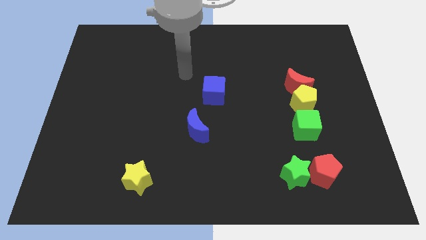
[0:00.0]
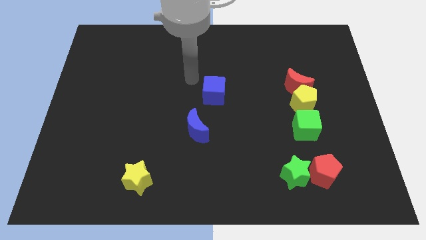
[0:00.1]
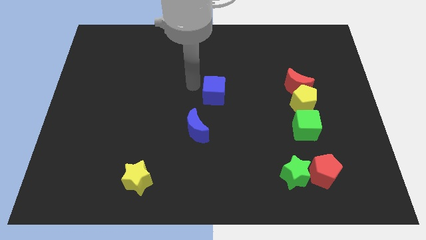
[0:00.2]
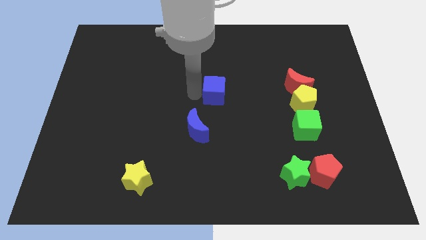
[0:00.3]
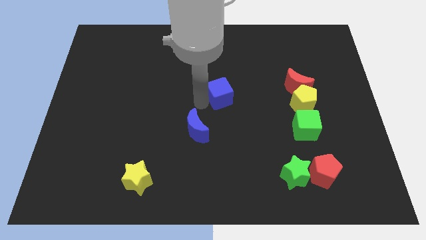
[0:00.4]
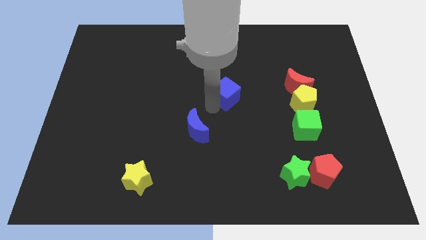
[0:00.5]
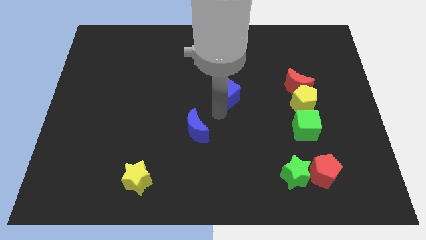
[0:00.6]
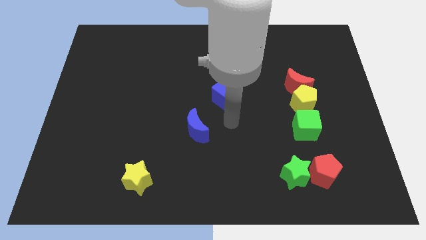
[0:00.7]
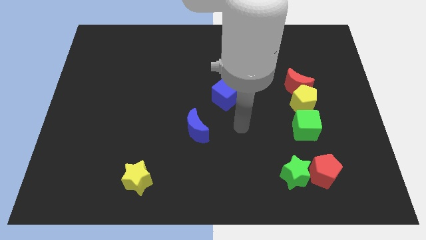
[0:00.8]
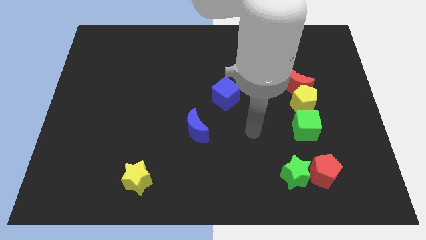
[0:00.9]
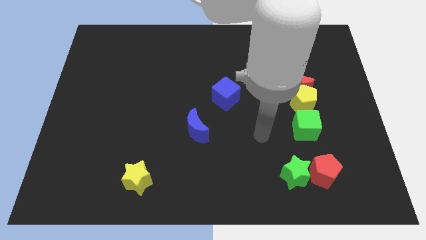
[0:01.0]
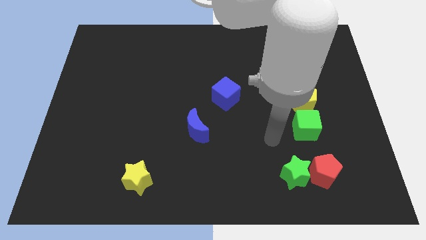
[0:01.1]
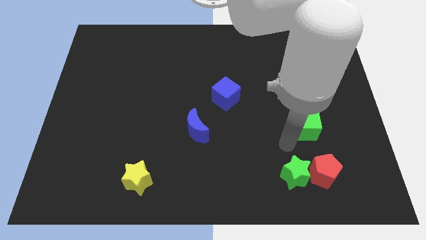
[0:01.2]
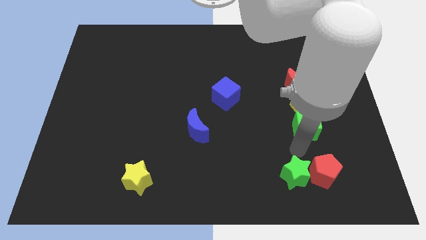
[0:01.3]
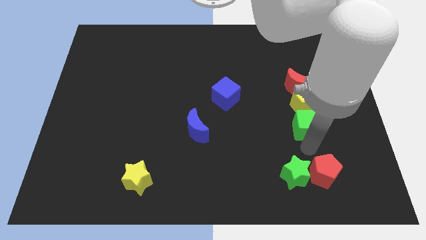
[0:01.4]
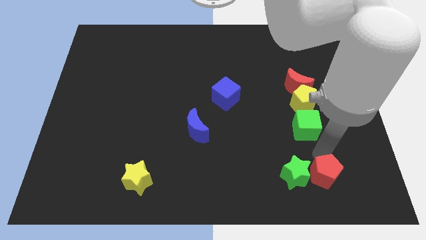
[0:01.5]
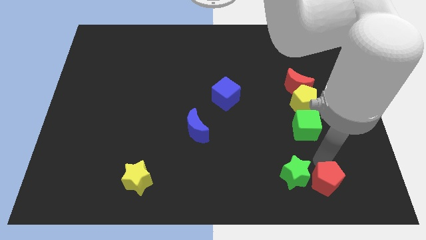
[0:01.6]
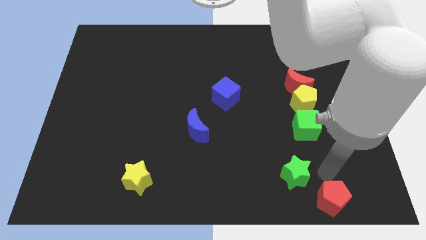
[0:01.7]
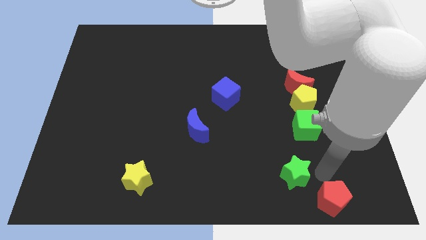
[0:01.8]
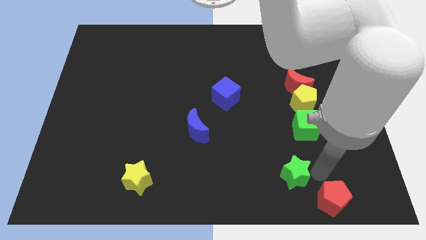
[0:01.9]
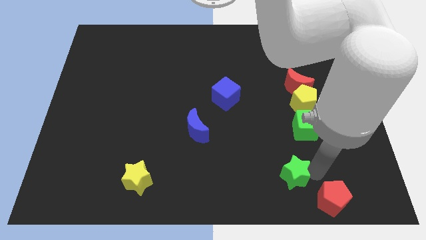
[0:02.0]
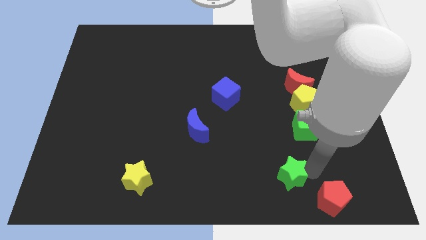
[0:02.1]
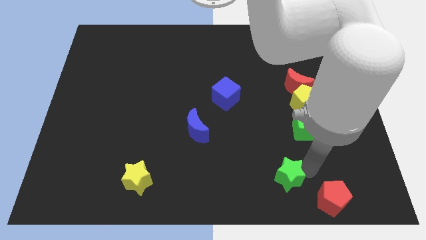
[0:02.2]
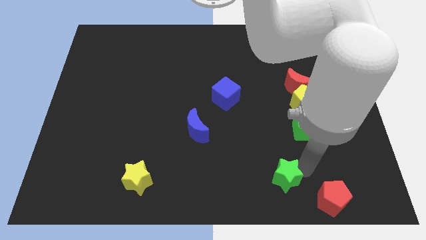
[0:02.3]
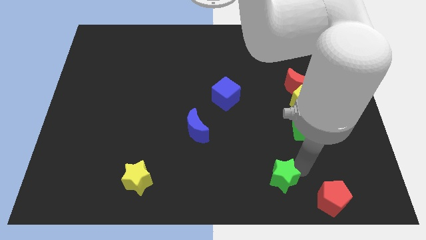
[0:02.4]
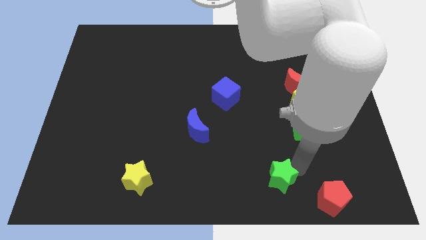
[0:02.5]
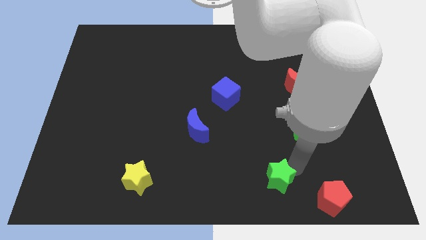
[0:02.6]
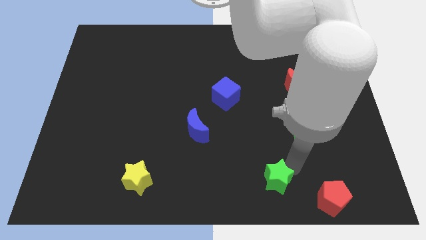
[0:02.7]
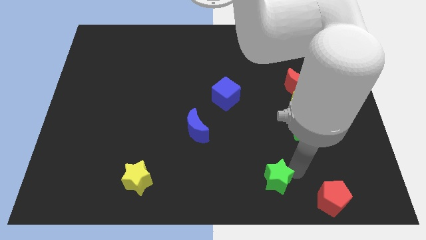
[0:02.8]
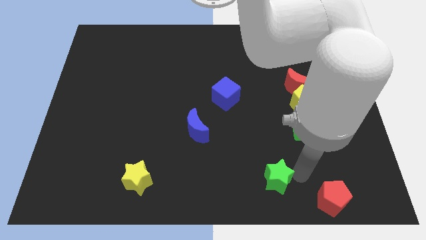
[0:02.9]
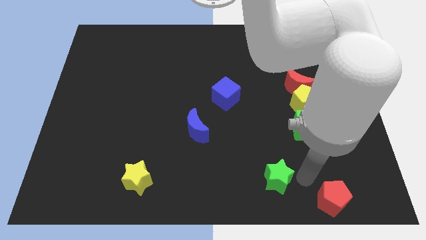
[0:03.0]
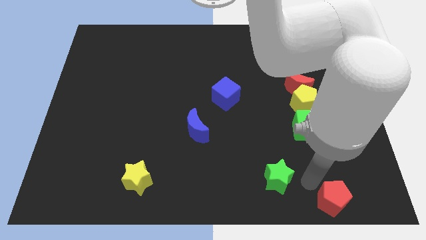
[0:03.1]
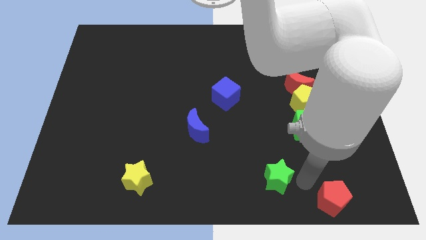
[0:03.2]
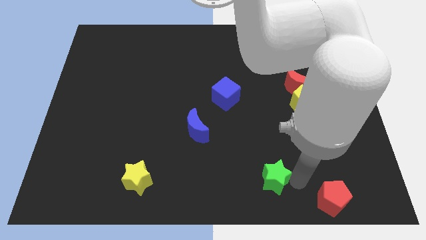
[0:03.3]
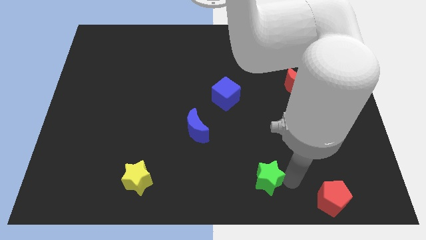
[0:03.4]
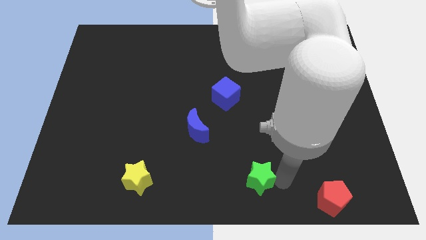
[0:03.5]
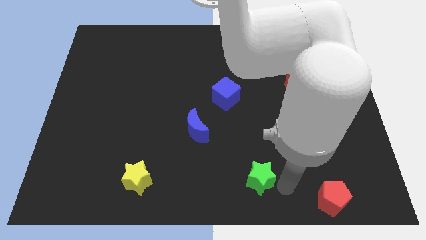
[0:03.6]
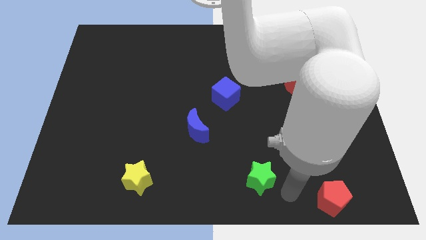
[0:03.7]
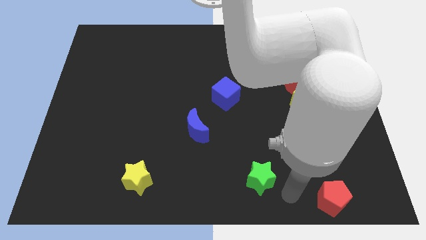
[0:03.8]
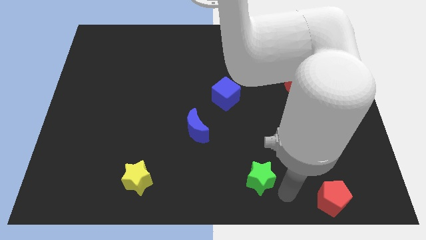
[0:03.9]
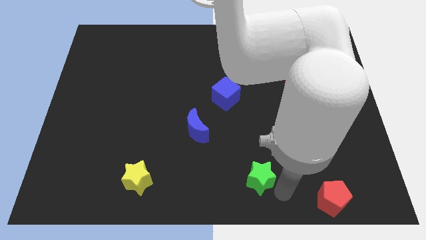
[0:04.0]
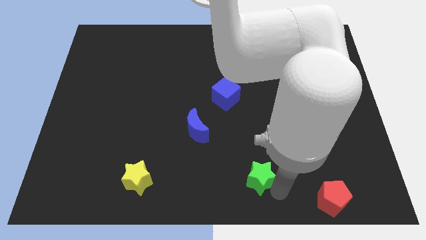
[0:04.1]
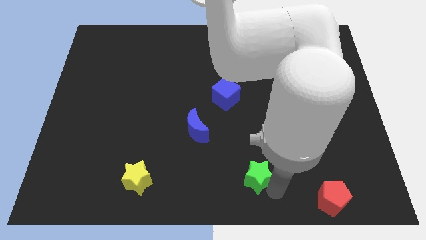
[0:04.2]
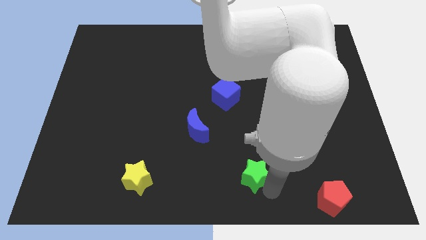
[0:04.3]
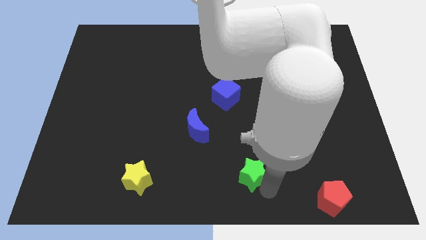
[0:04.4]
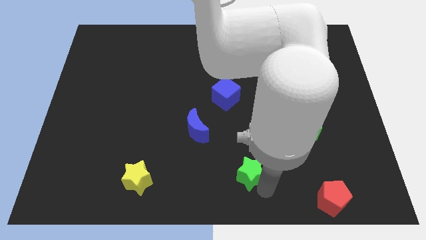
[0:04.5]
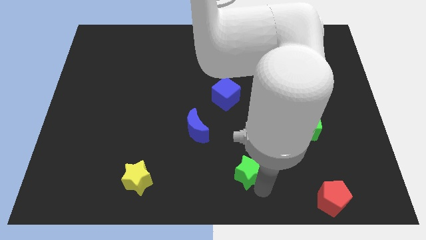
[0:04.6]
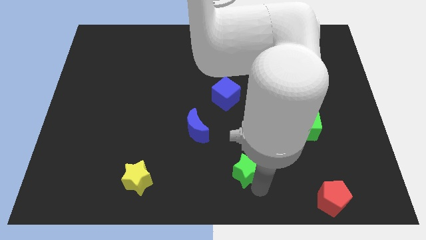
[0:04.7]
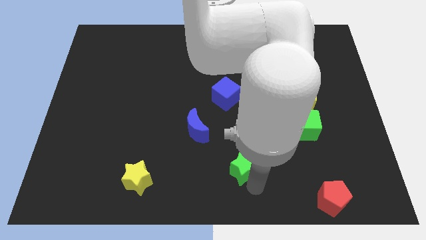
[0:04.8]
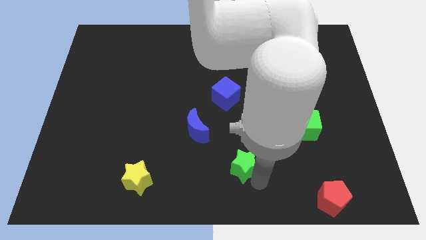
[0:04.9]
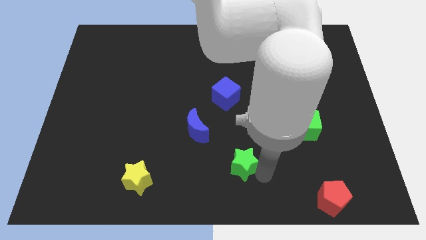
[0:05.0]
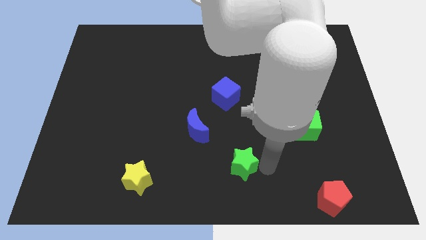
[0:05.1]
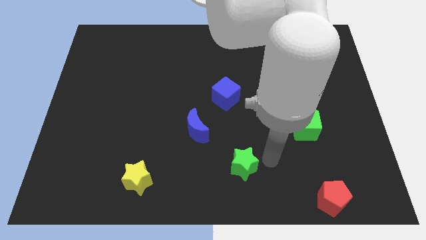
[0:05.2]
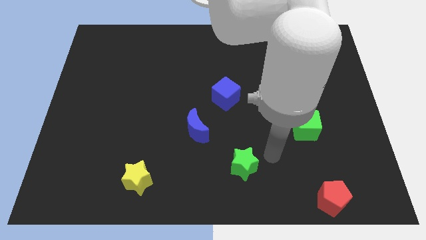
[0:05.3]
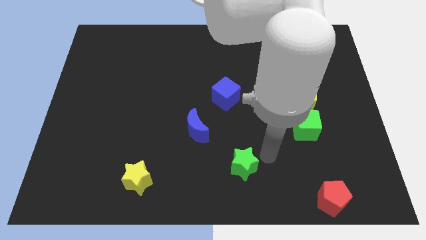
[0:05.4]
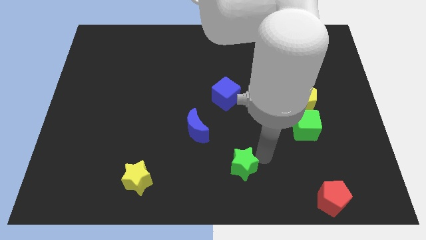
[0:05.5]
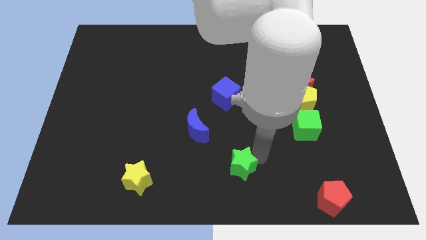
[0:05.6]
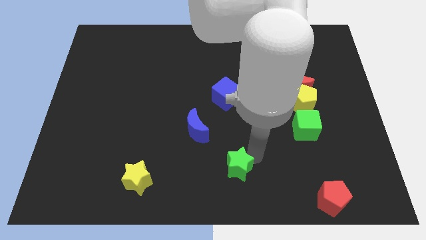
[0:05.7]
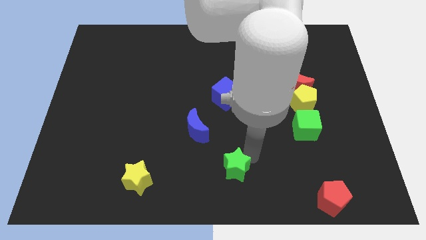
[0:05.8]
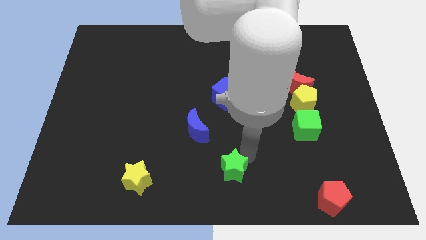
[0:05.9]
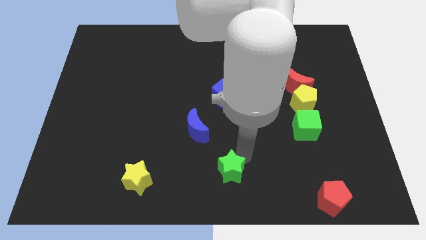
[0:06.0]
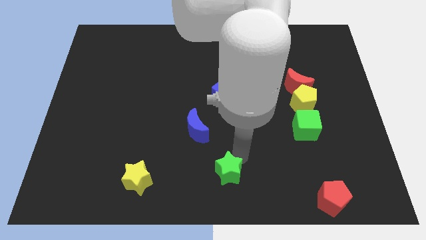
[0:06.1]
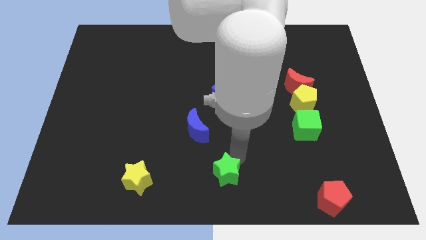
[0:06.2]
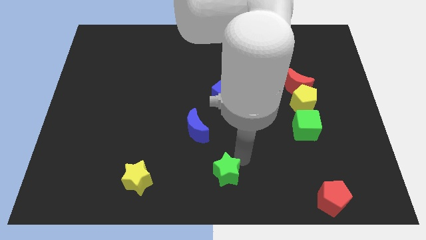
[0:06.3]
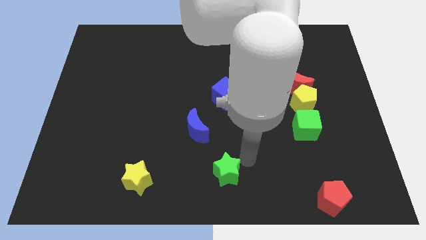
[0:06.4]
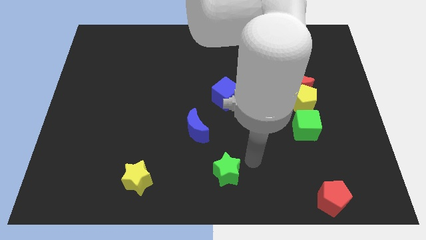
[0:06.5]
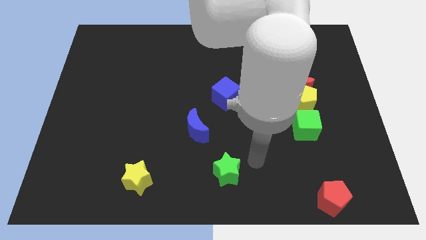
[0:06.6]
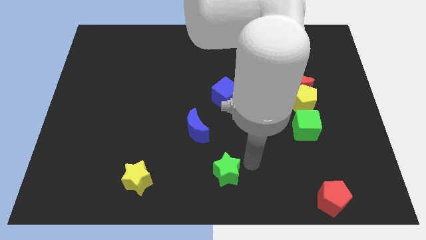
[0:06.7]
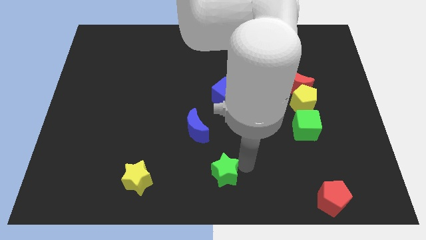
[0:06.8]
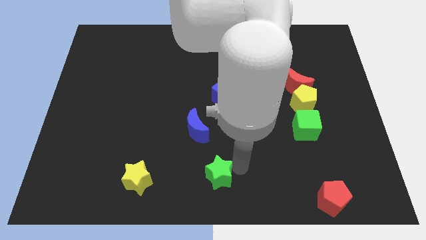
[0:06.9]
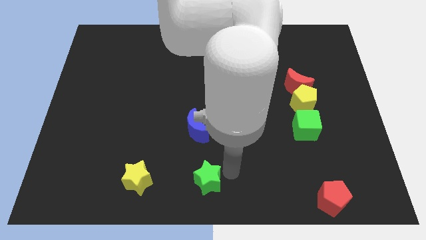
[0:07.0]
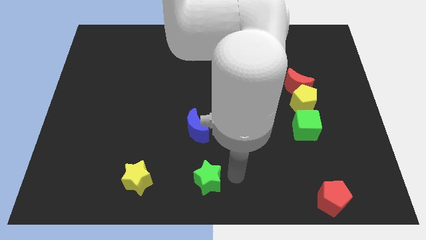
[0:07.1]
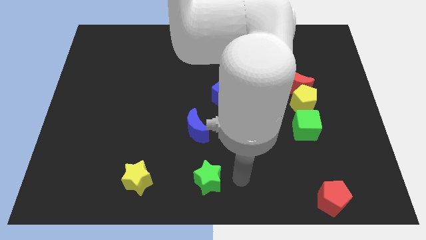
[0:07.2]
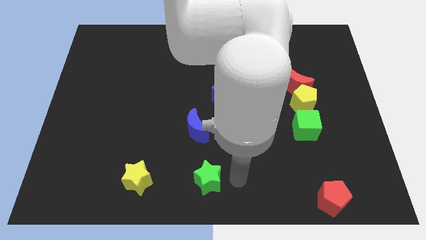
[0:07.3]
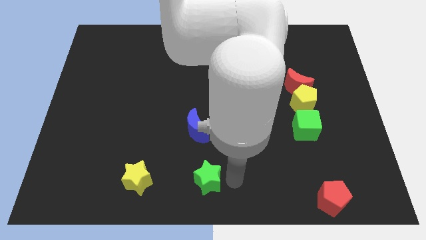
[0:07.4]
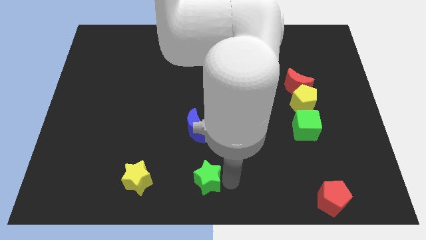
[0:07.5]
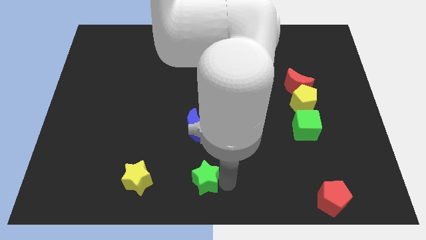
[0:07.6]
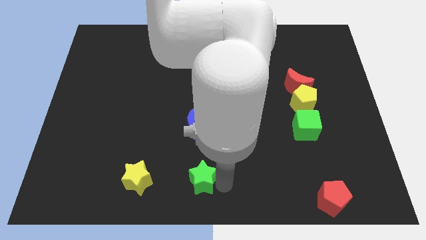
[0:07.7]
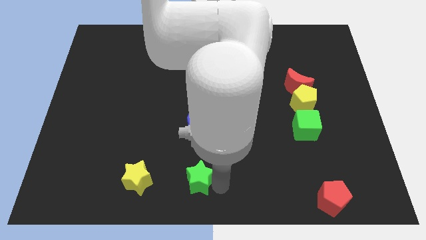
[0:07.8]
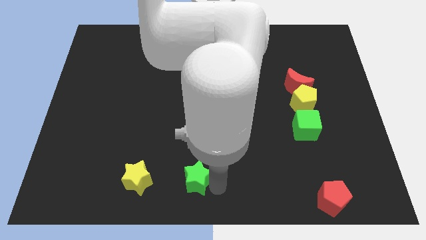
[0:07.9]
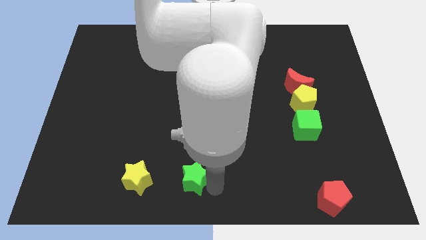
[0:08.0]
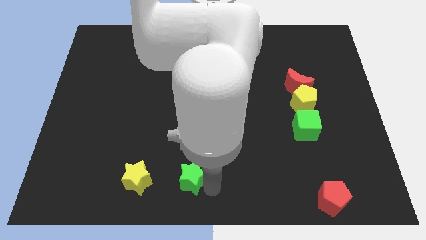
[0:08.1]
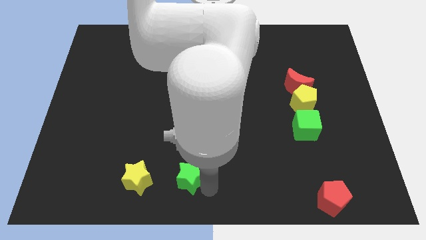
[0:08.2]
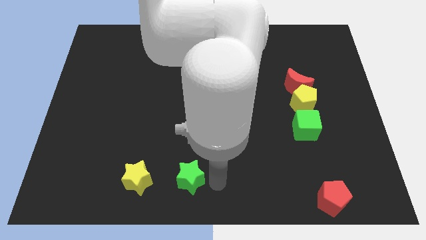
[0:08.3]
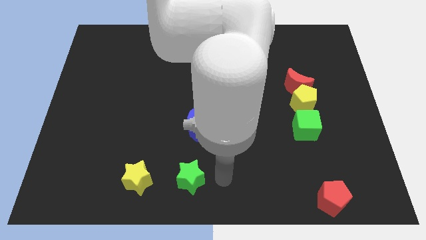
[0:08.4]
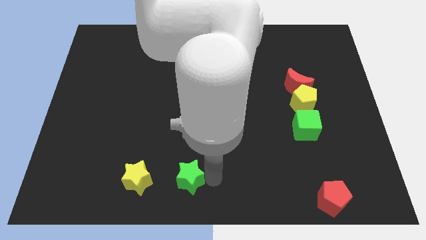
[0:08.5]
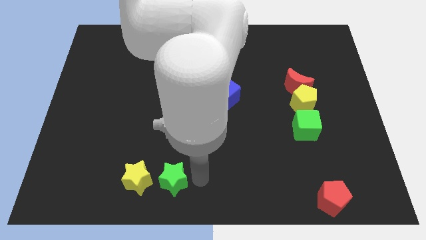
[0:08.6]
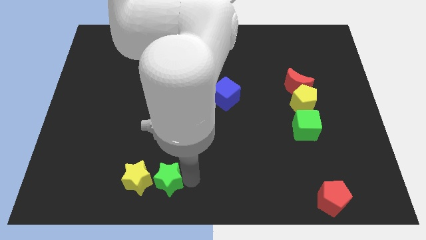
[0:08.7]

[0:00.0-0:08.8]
put the green star towards the yellow star
